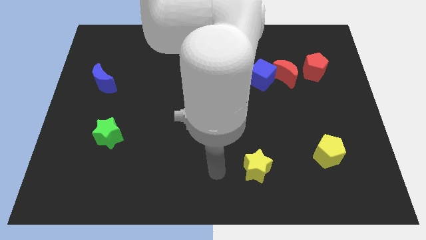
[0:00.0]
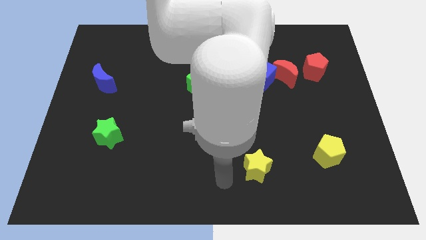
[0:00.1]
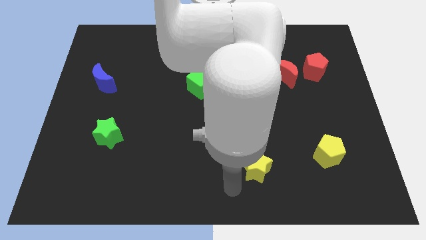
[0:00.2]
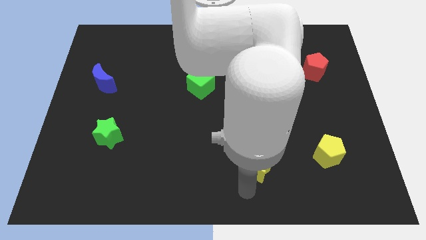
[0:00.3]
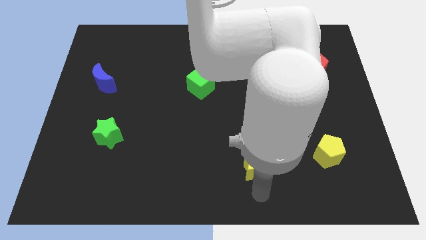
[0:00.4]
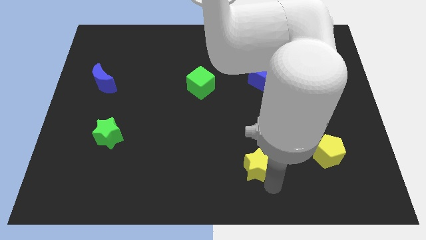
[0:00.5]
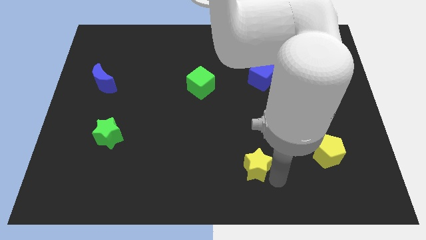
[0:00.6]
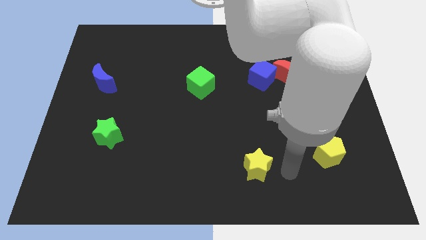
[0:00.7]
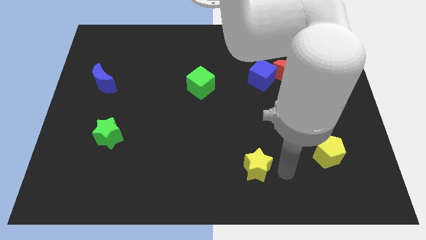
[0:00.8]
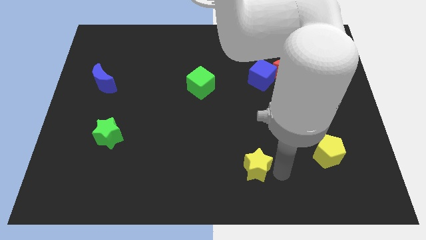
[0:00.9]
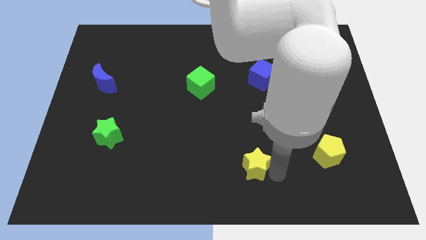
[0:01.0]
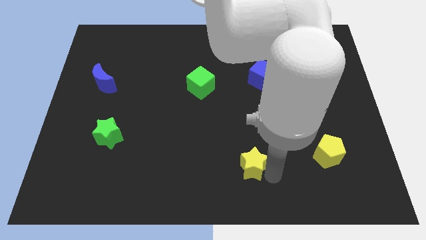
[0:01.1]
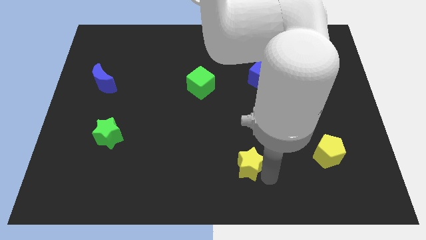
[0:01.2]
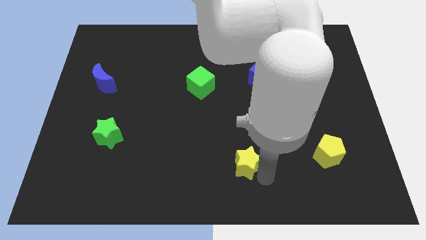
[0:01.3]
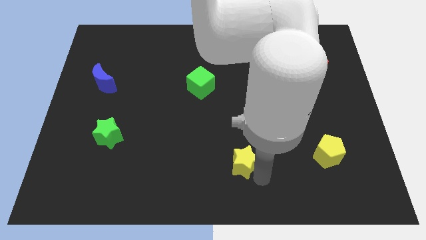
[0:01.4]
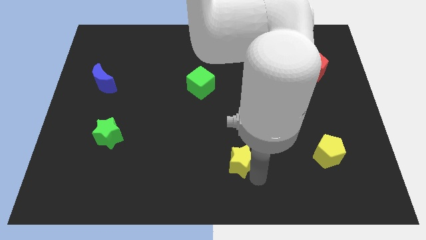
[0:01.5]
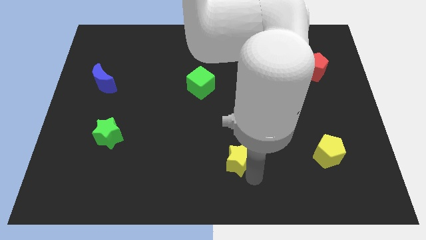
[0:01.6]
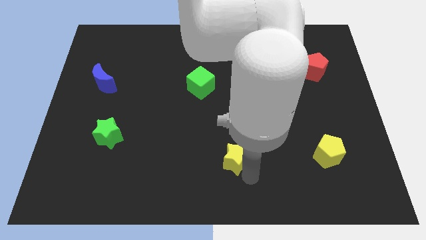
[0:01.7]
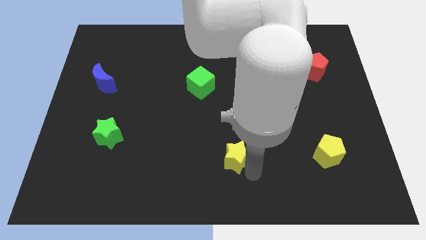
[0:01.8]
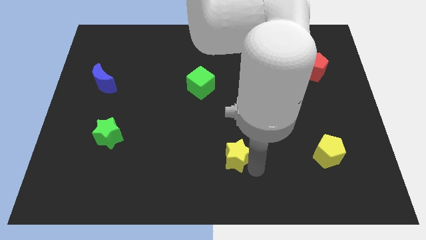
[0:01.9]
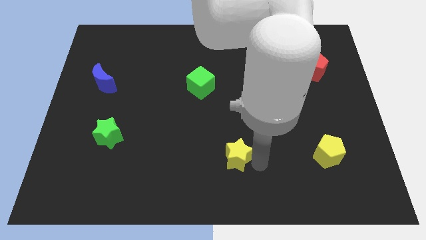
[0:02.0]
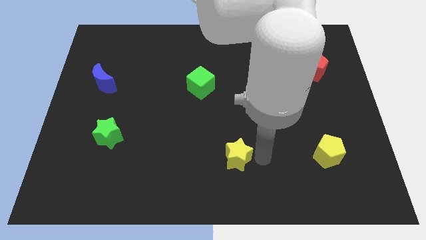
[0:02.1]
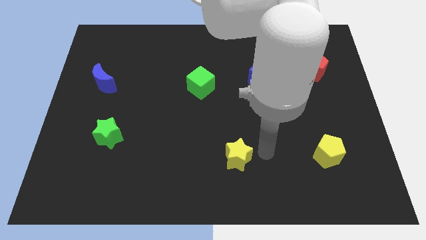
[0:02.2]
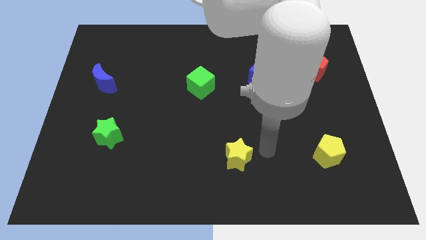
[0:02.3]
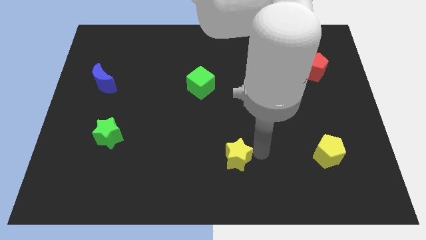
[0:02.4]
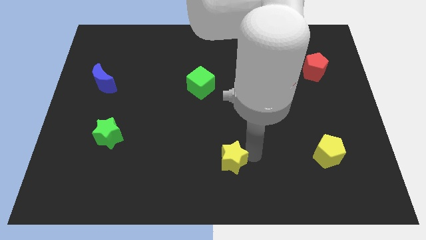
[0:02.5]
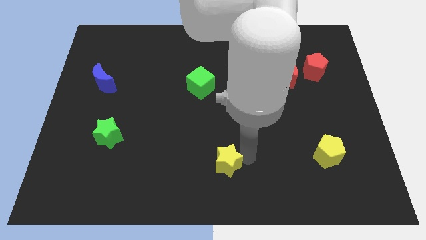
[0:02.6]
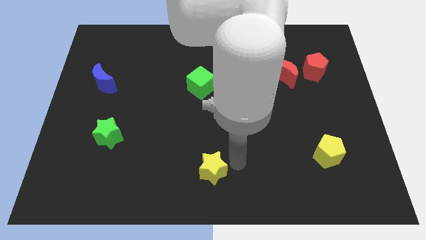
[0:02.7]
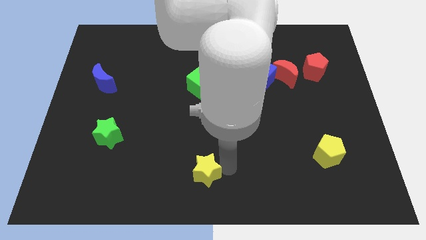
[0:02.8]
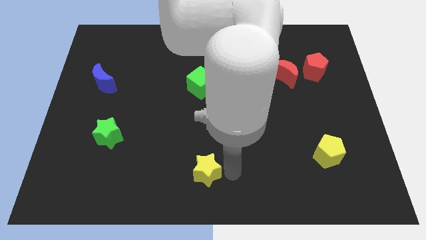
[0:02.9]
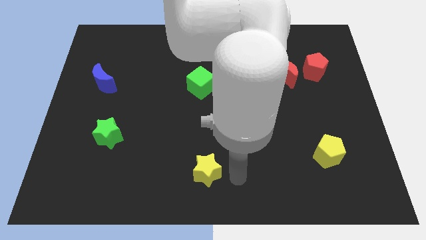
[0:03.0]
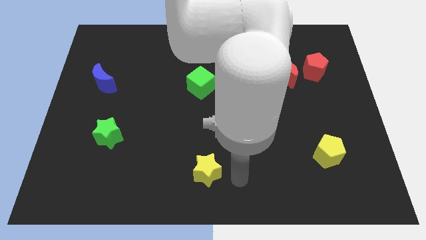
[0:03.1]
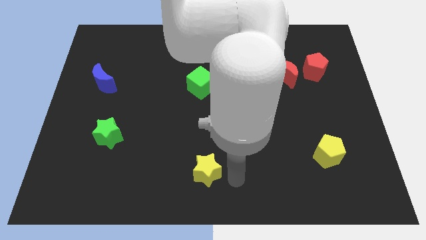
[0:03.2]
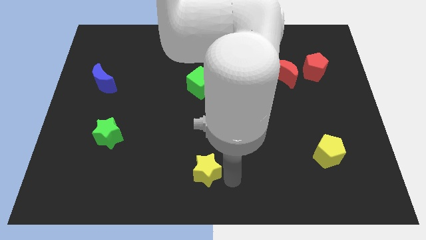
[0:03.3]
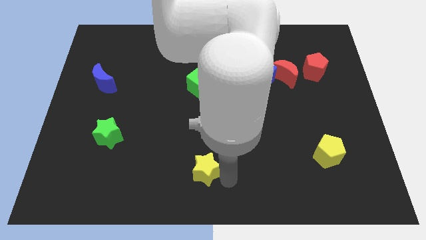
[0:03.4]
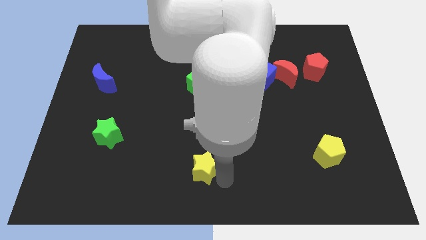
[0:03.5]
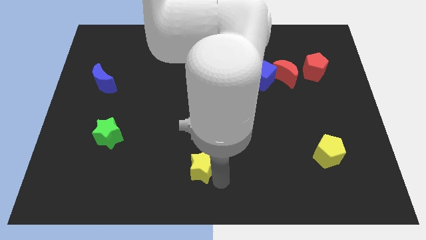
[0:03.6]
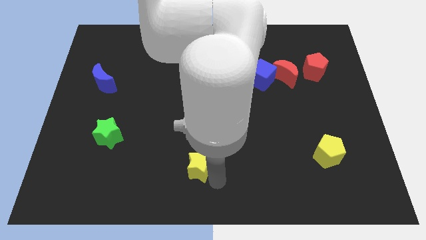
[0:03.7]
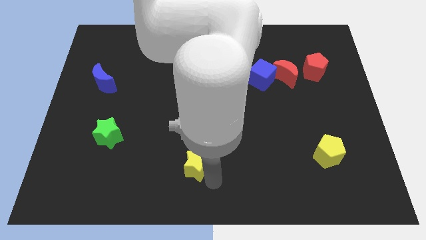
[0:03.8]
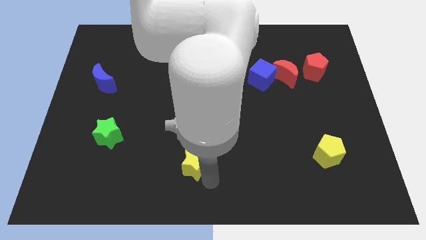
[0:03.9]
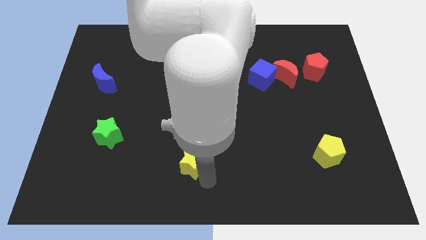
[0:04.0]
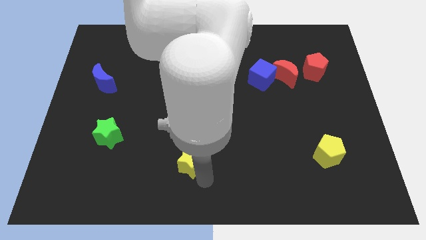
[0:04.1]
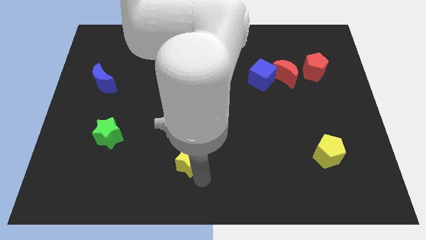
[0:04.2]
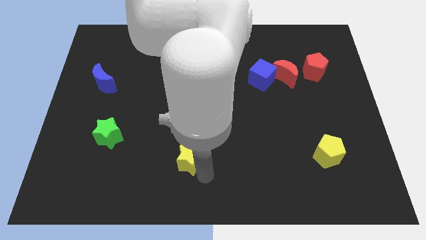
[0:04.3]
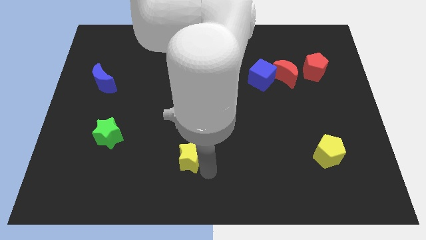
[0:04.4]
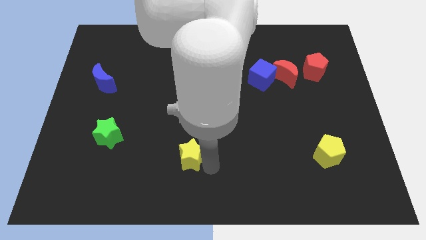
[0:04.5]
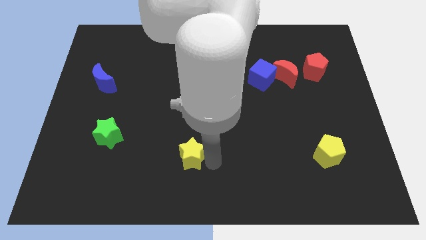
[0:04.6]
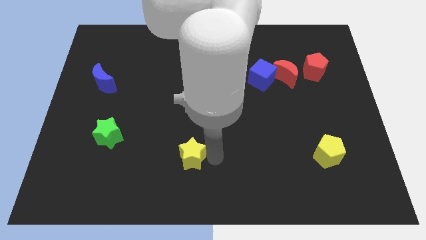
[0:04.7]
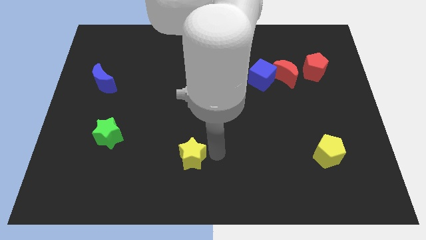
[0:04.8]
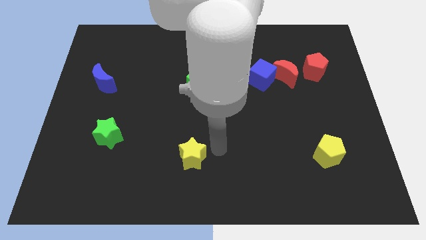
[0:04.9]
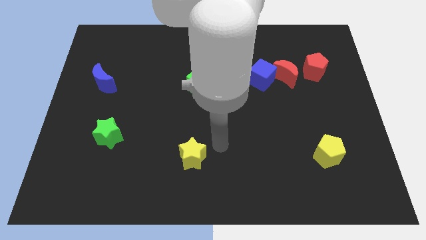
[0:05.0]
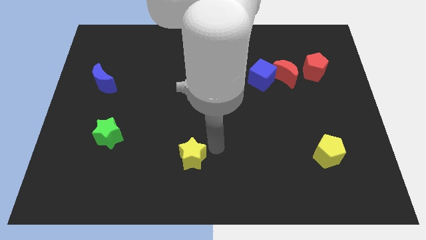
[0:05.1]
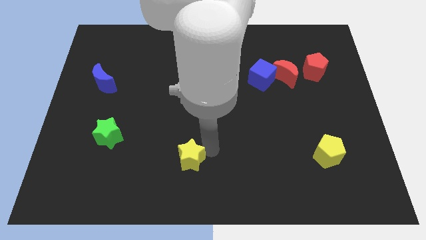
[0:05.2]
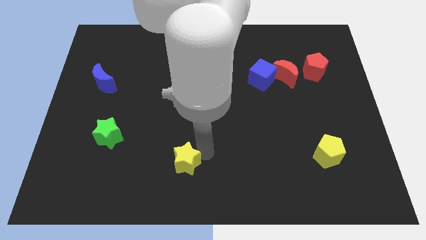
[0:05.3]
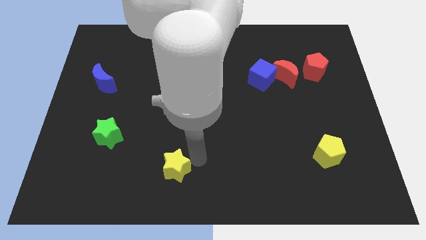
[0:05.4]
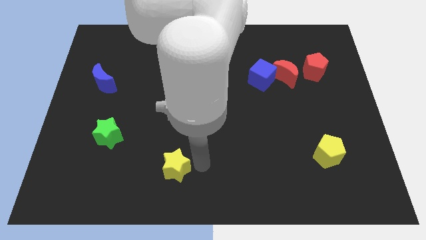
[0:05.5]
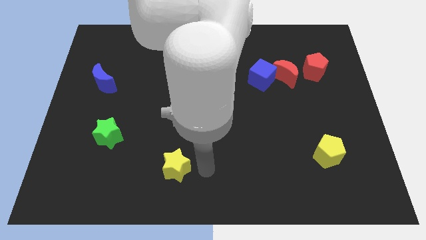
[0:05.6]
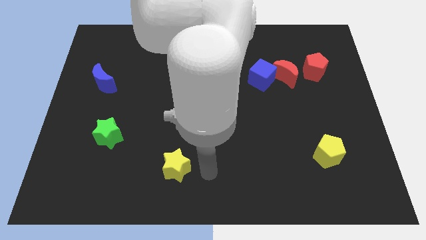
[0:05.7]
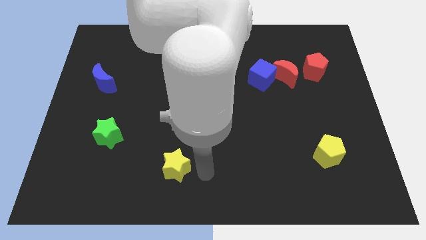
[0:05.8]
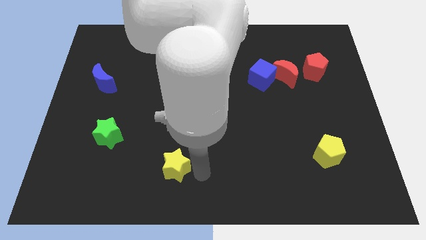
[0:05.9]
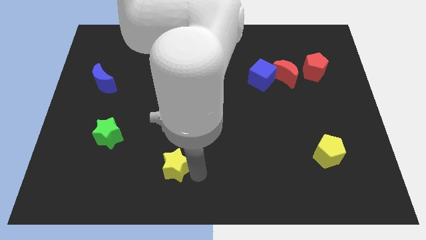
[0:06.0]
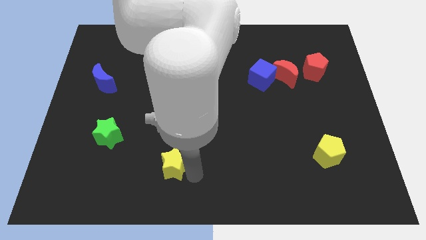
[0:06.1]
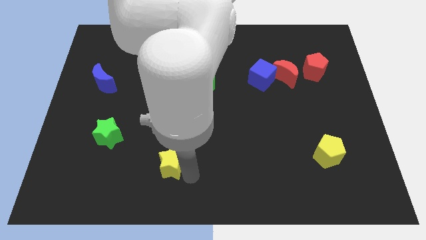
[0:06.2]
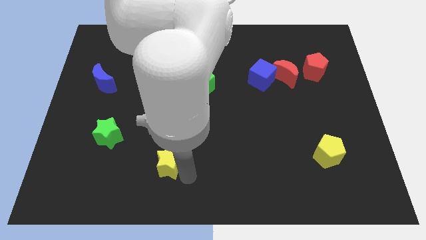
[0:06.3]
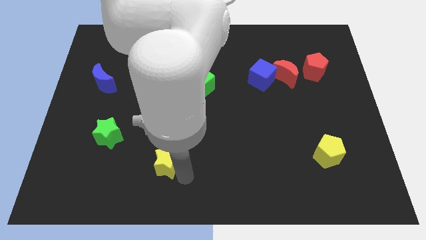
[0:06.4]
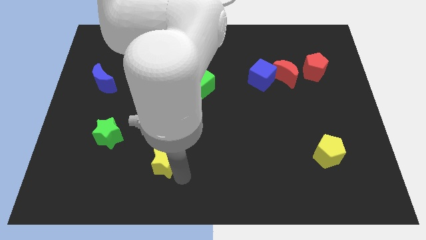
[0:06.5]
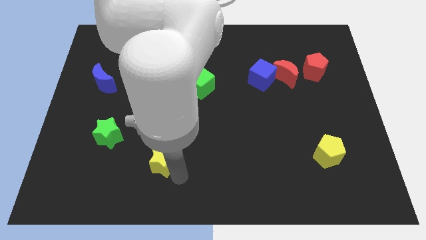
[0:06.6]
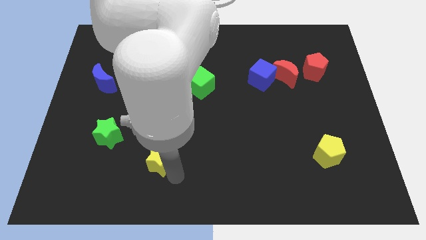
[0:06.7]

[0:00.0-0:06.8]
slide the yellow star to the left

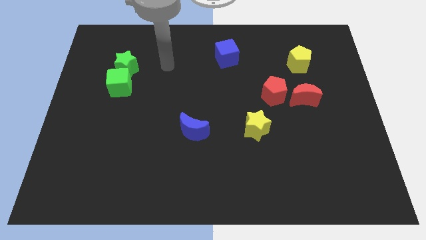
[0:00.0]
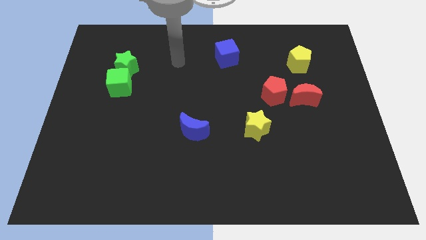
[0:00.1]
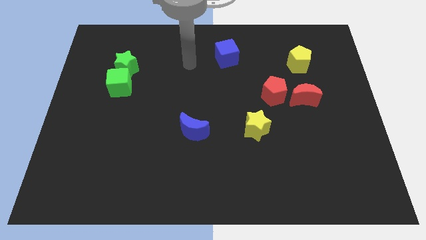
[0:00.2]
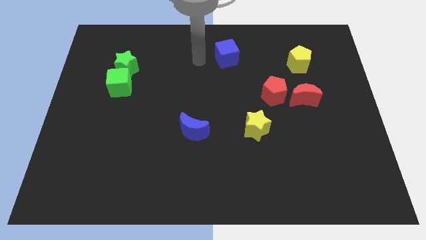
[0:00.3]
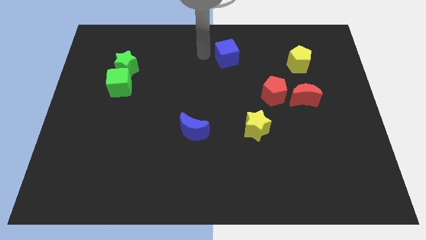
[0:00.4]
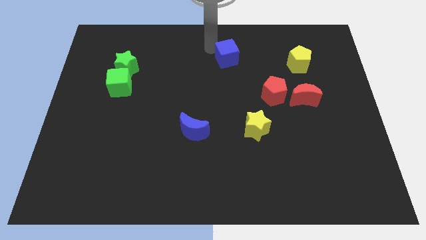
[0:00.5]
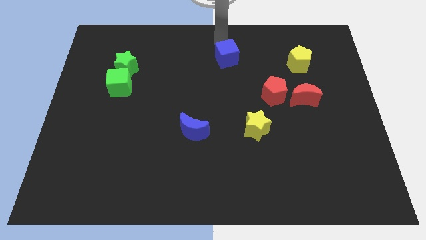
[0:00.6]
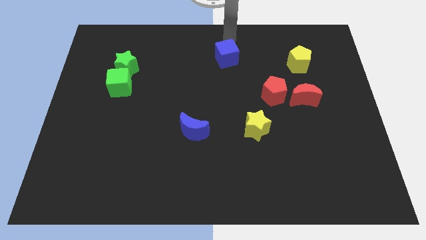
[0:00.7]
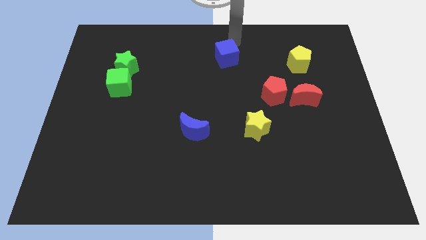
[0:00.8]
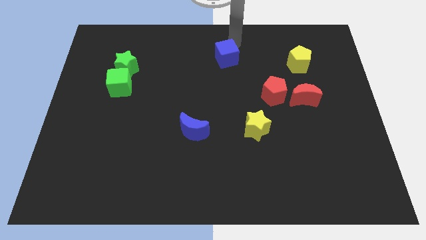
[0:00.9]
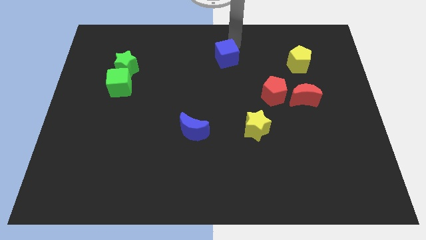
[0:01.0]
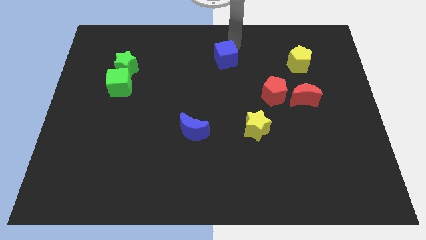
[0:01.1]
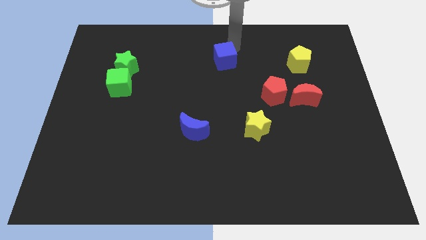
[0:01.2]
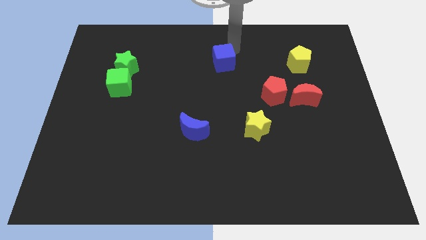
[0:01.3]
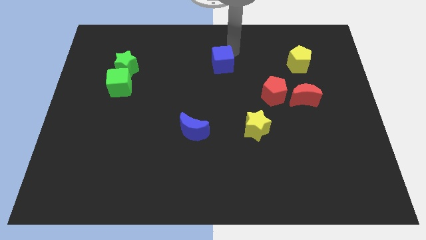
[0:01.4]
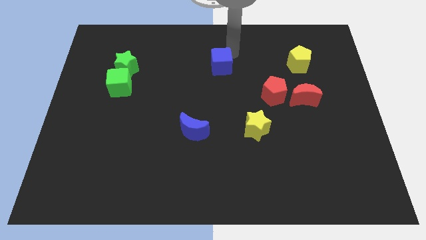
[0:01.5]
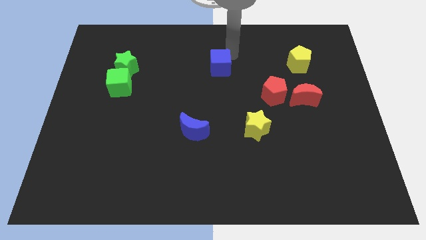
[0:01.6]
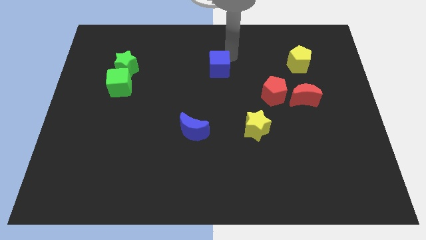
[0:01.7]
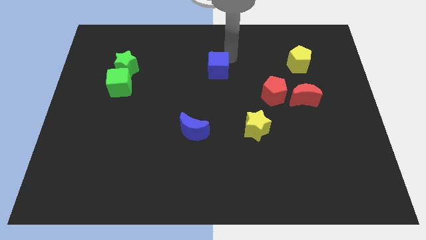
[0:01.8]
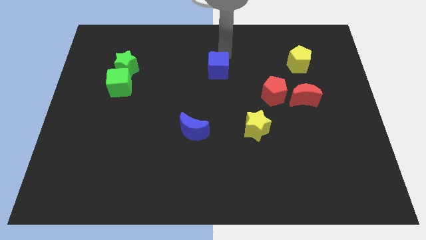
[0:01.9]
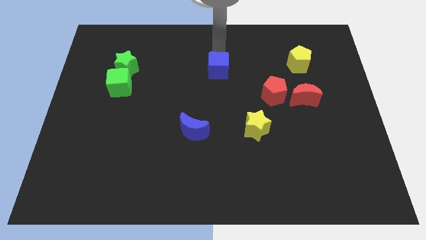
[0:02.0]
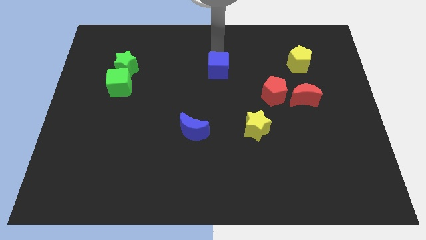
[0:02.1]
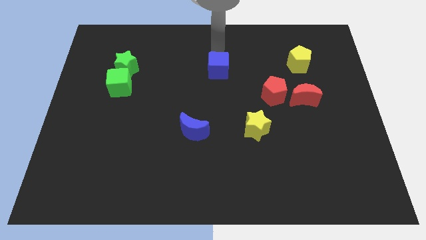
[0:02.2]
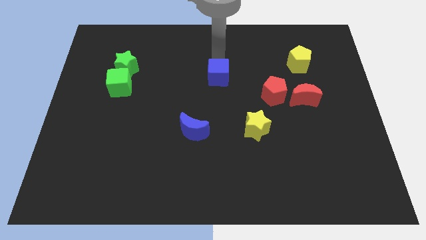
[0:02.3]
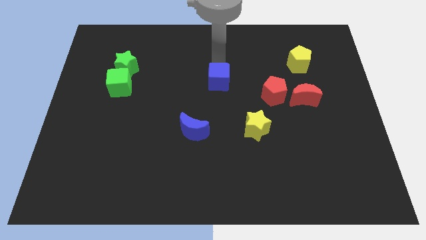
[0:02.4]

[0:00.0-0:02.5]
slide the blue cube a little down
